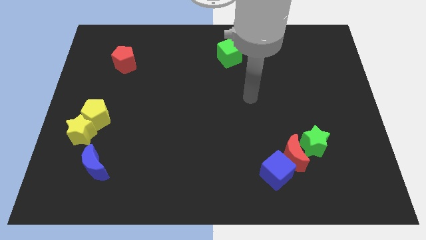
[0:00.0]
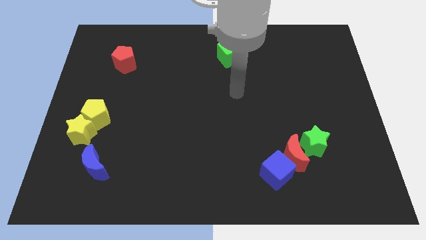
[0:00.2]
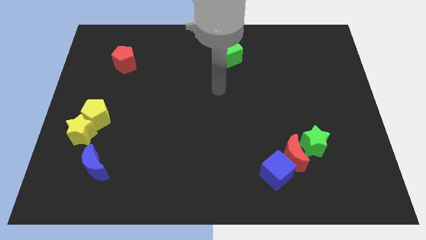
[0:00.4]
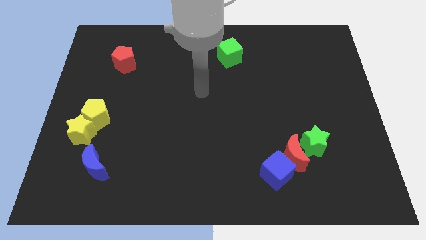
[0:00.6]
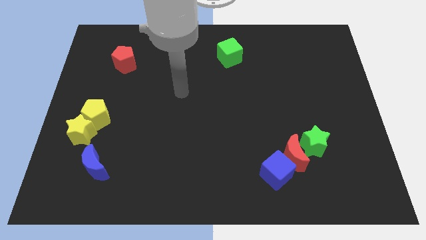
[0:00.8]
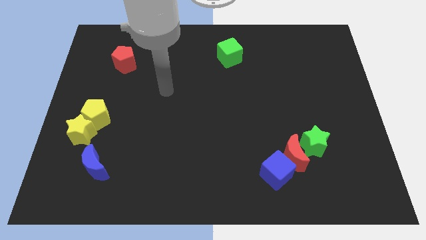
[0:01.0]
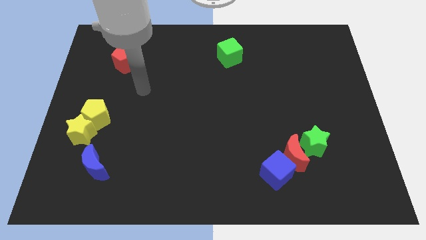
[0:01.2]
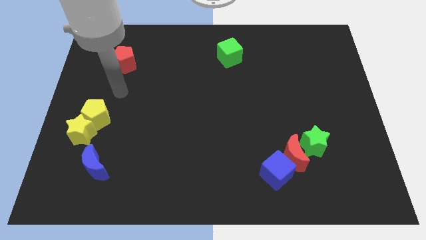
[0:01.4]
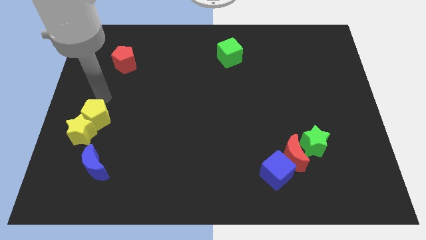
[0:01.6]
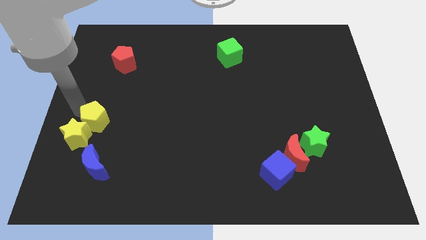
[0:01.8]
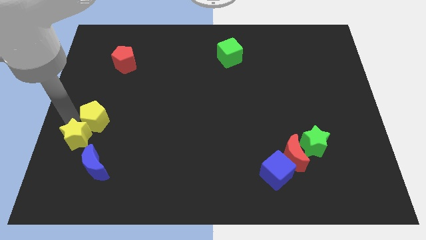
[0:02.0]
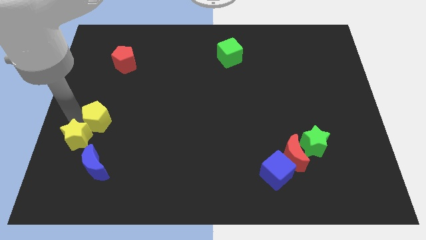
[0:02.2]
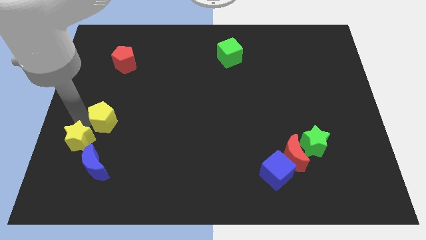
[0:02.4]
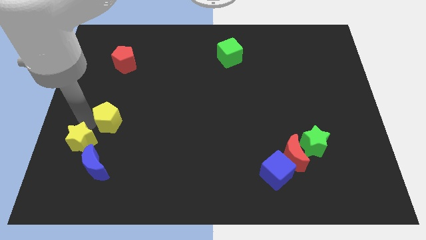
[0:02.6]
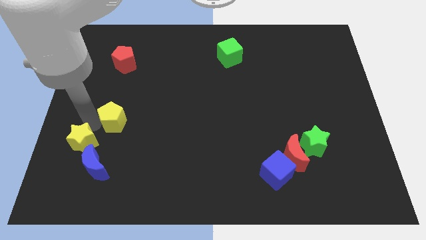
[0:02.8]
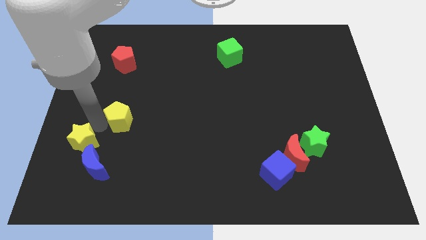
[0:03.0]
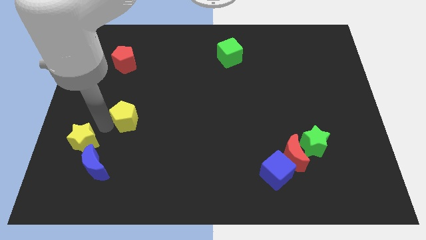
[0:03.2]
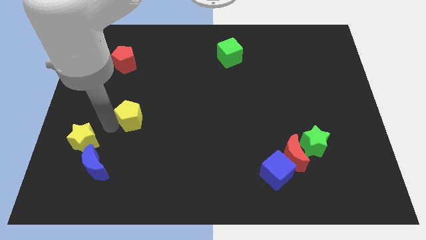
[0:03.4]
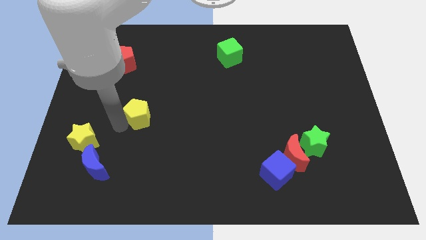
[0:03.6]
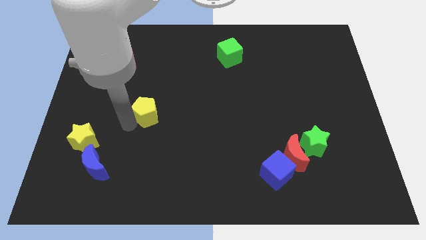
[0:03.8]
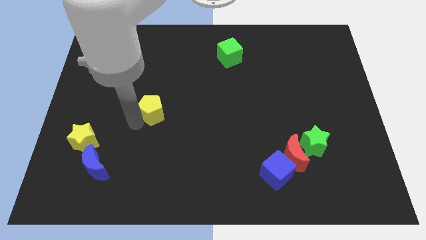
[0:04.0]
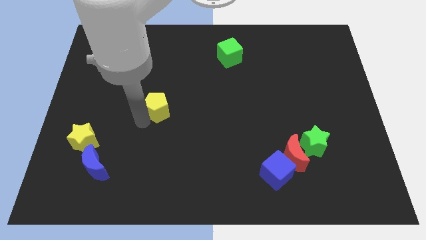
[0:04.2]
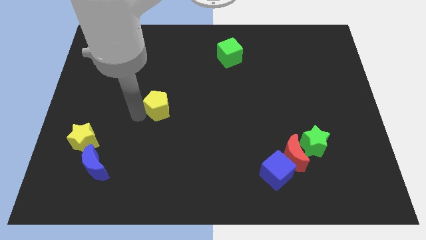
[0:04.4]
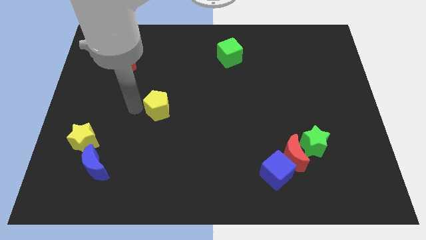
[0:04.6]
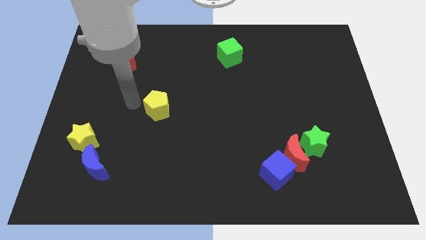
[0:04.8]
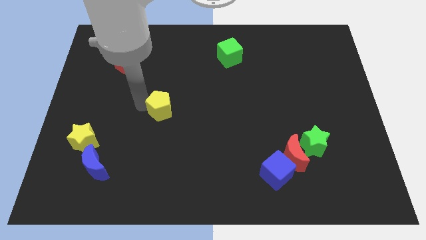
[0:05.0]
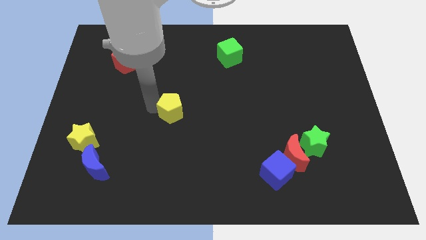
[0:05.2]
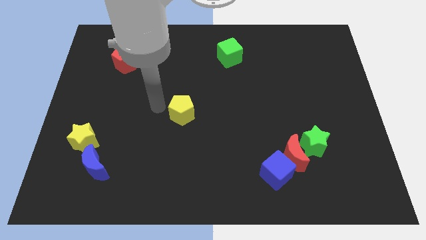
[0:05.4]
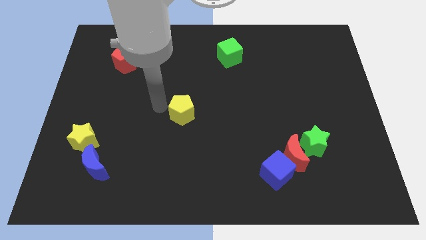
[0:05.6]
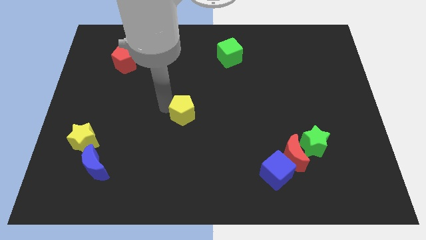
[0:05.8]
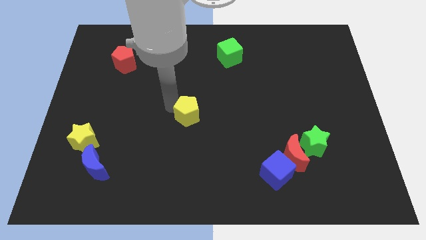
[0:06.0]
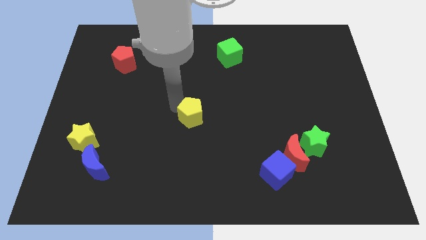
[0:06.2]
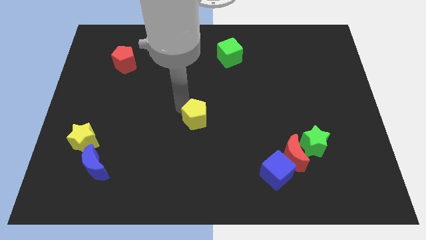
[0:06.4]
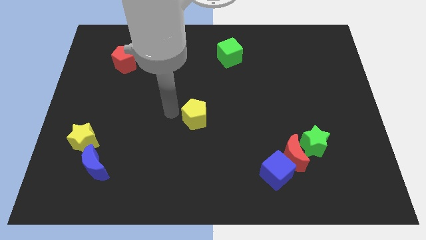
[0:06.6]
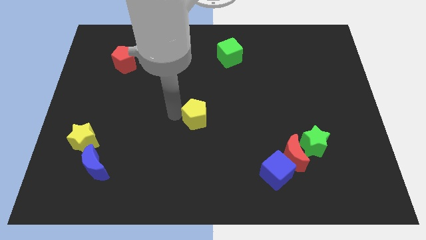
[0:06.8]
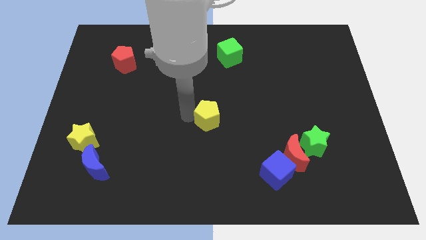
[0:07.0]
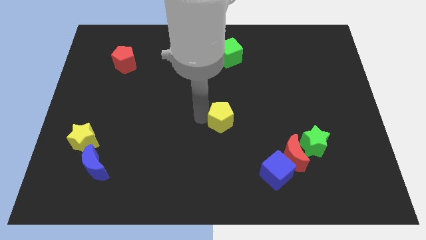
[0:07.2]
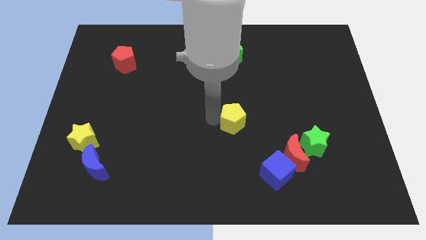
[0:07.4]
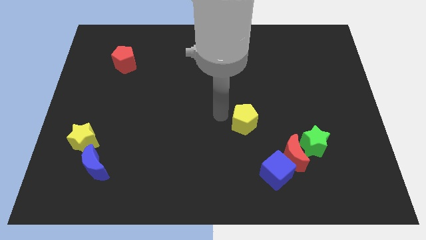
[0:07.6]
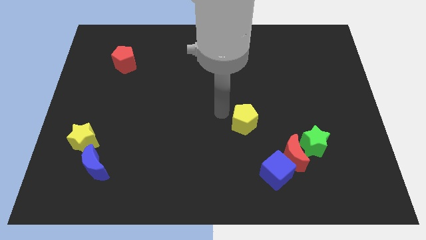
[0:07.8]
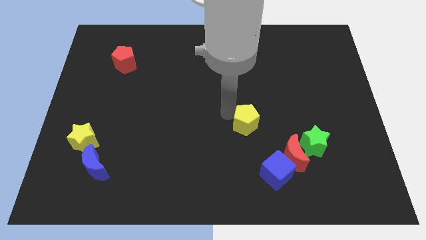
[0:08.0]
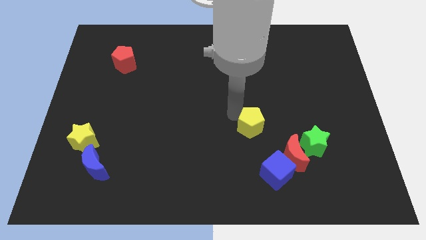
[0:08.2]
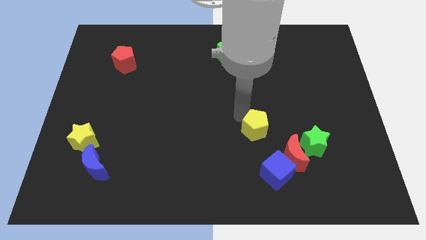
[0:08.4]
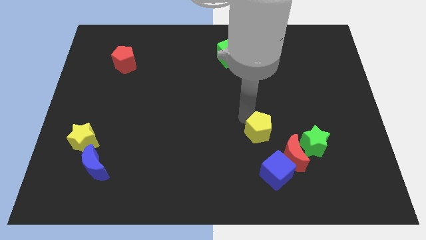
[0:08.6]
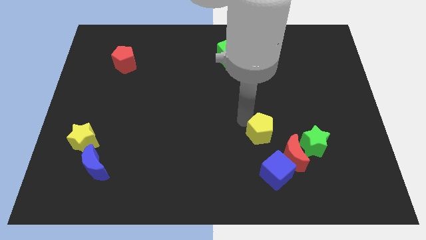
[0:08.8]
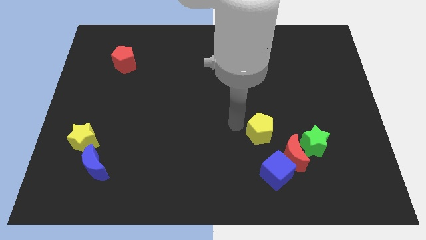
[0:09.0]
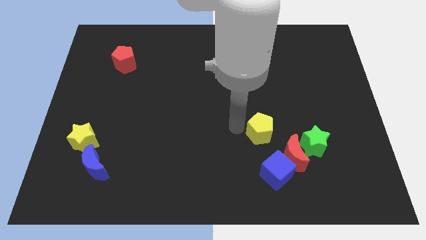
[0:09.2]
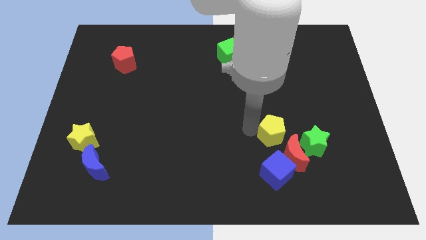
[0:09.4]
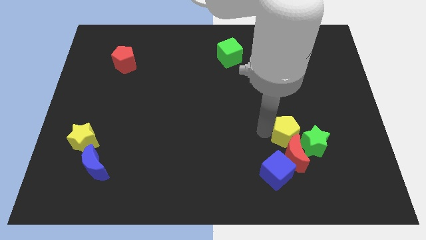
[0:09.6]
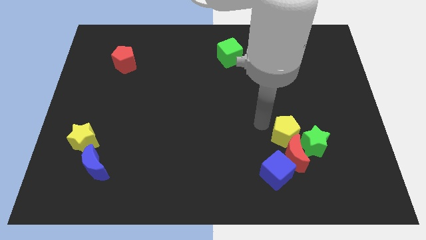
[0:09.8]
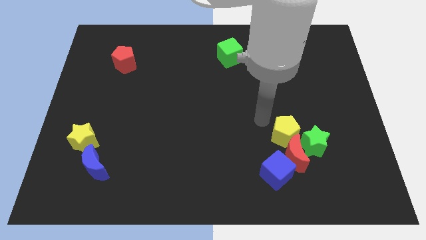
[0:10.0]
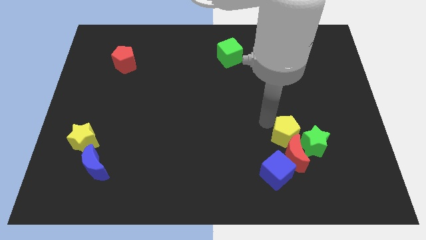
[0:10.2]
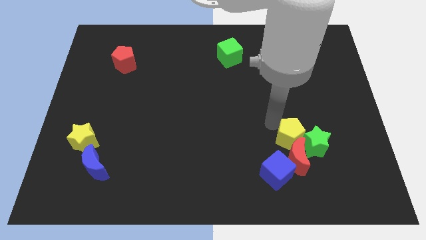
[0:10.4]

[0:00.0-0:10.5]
move the yellow pentagon towards the green star

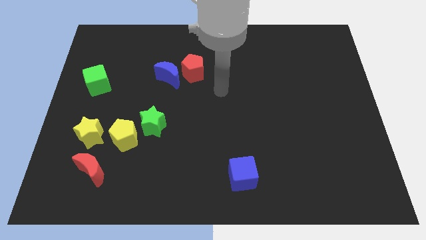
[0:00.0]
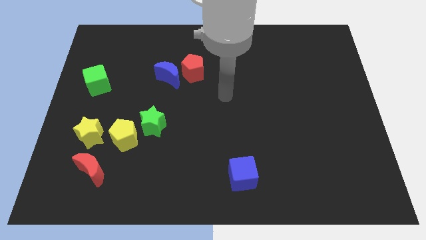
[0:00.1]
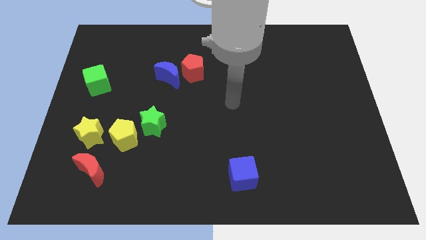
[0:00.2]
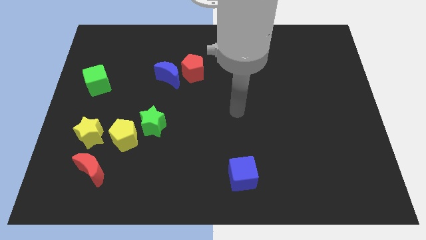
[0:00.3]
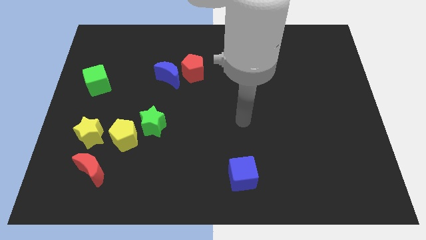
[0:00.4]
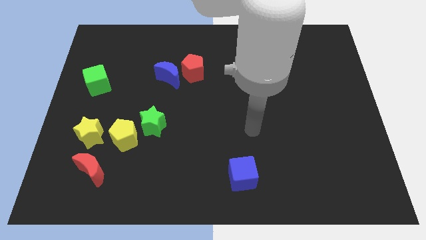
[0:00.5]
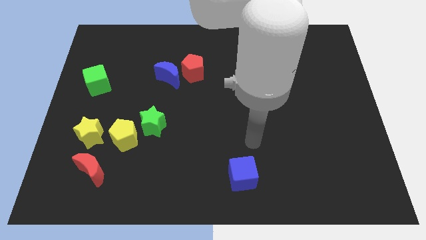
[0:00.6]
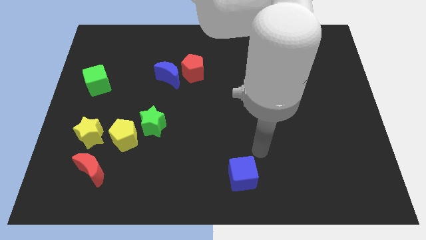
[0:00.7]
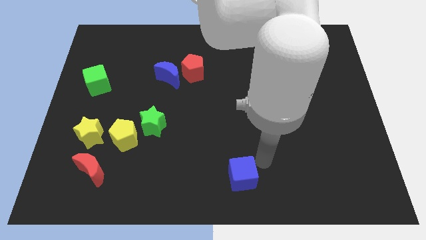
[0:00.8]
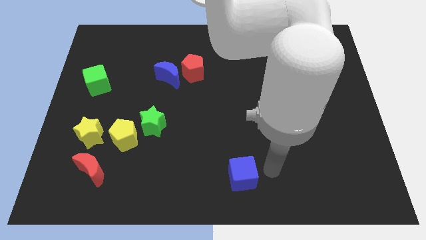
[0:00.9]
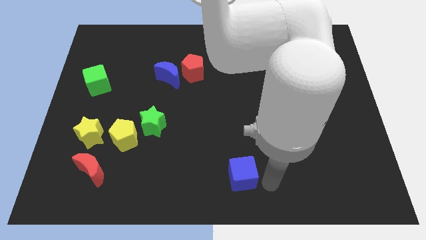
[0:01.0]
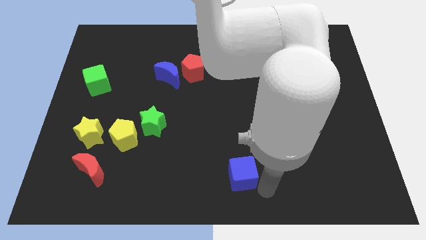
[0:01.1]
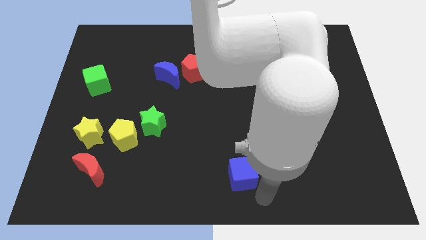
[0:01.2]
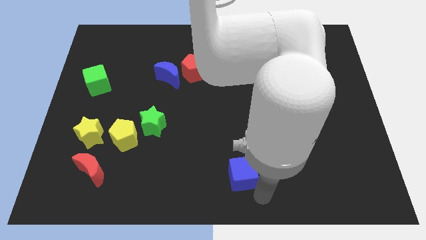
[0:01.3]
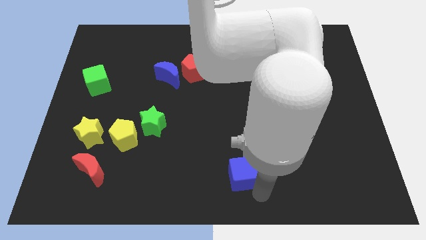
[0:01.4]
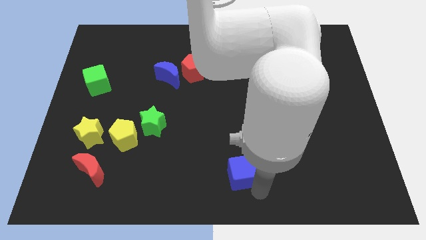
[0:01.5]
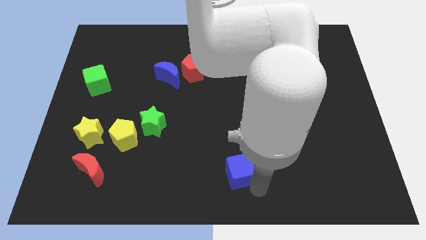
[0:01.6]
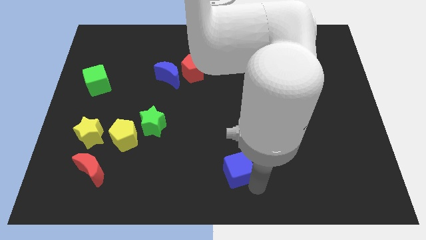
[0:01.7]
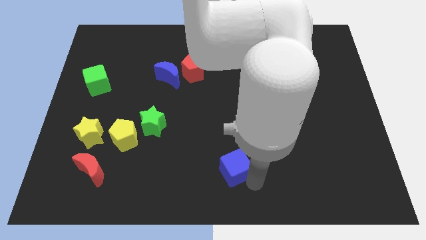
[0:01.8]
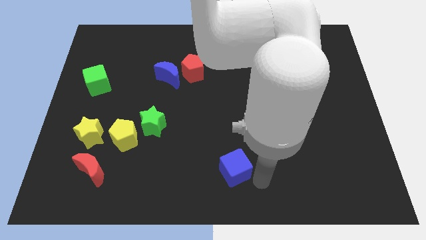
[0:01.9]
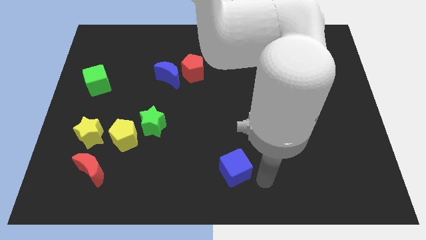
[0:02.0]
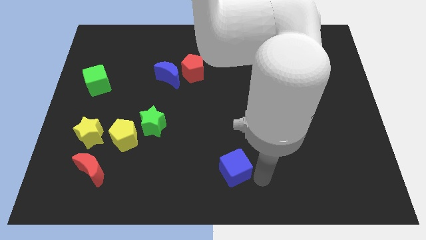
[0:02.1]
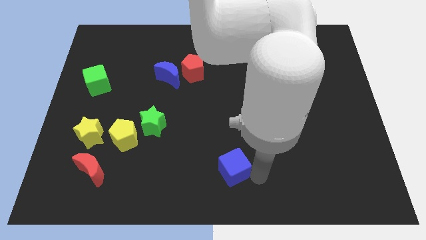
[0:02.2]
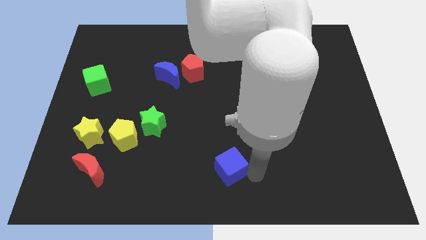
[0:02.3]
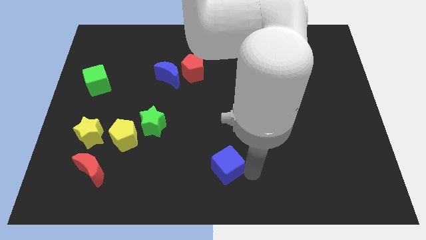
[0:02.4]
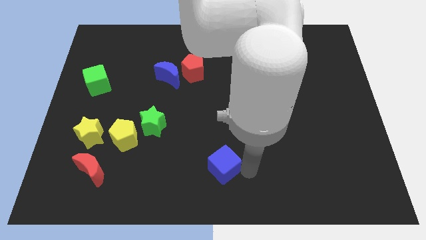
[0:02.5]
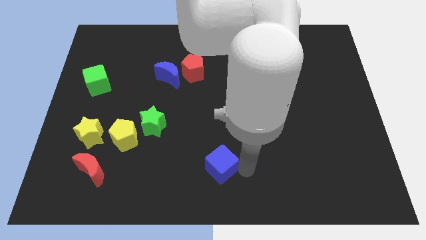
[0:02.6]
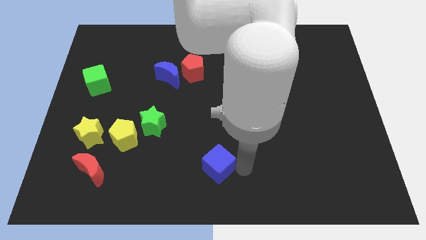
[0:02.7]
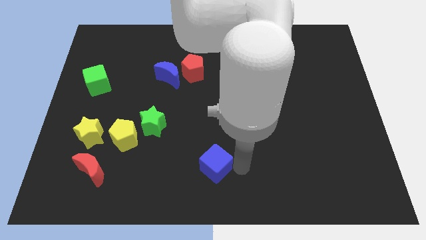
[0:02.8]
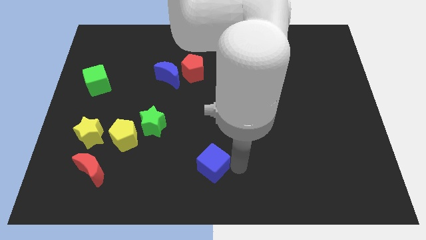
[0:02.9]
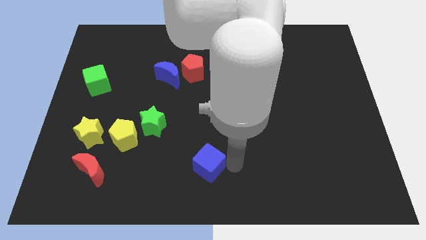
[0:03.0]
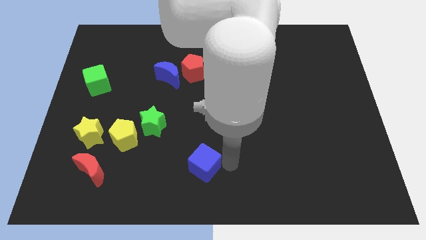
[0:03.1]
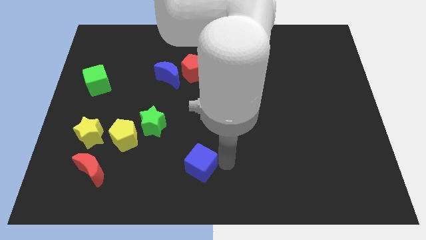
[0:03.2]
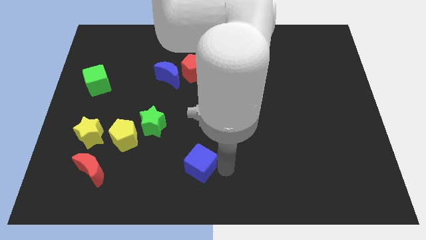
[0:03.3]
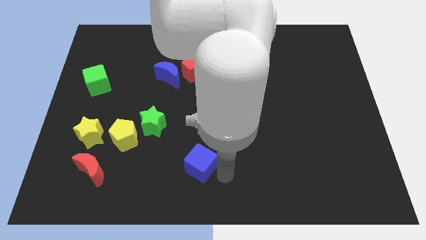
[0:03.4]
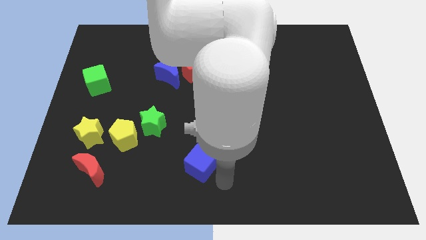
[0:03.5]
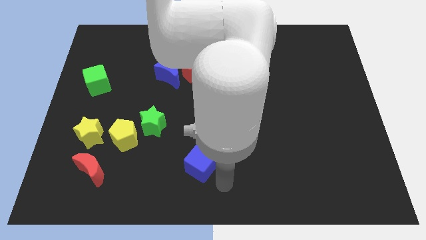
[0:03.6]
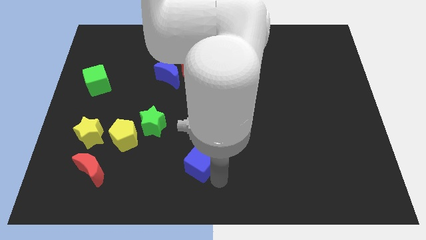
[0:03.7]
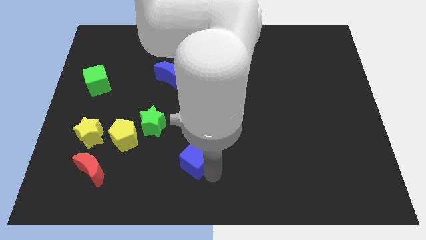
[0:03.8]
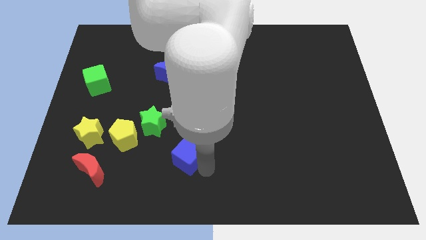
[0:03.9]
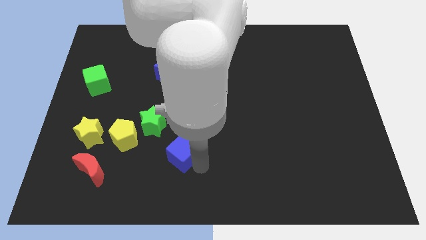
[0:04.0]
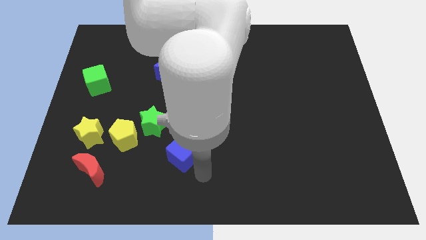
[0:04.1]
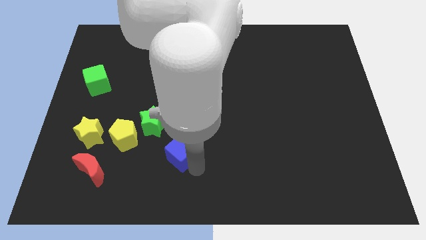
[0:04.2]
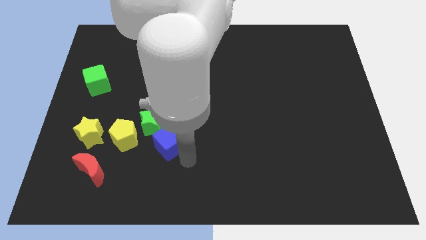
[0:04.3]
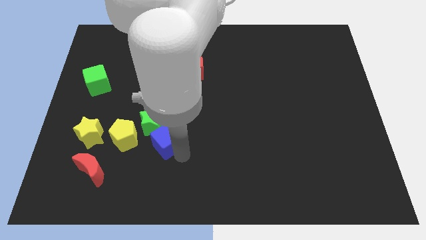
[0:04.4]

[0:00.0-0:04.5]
move the blue cube to the green star
